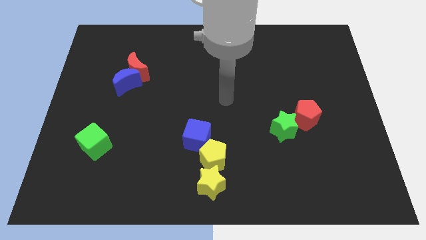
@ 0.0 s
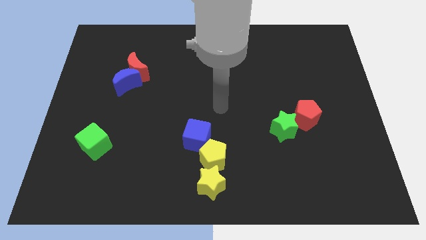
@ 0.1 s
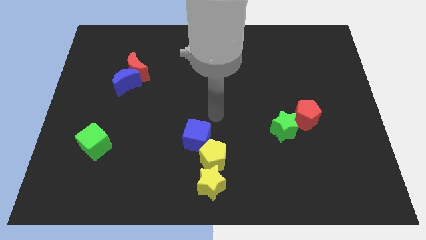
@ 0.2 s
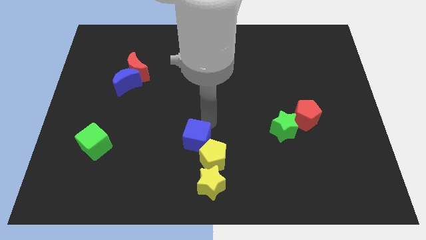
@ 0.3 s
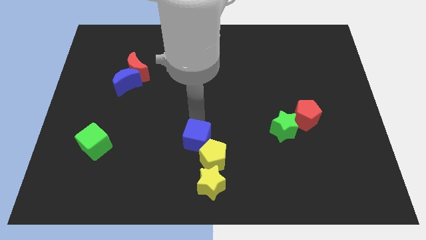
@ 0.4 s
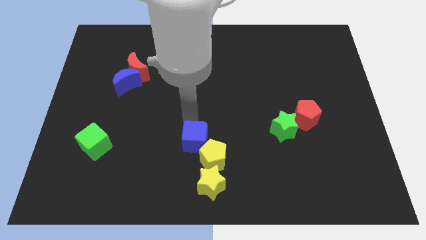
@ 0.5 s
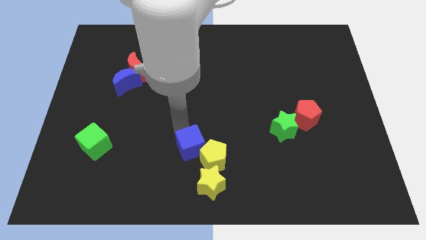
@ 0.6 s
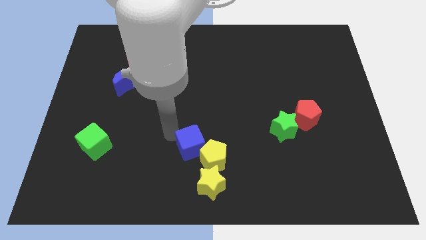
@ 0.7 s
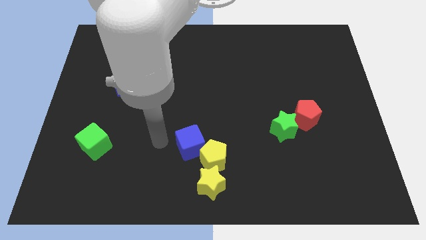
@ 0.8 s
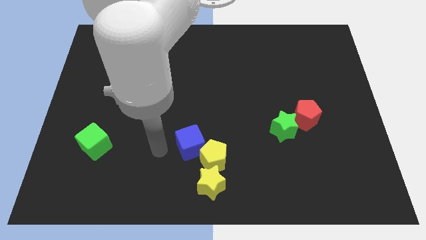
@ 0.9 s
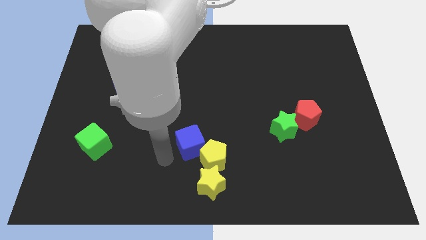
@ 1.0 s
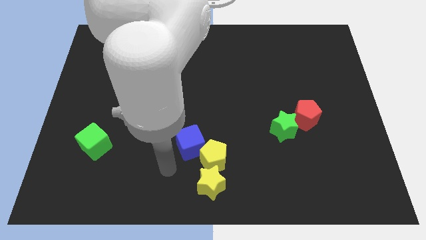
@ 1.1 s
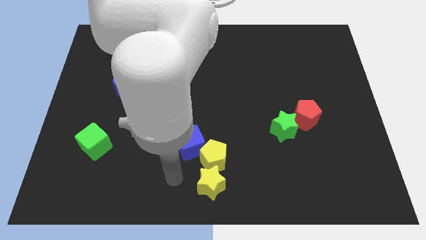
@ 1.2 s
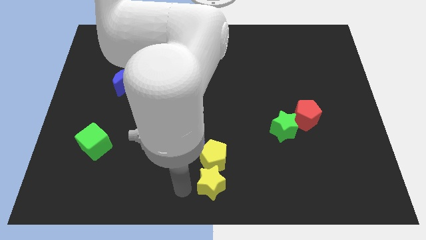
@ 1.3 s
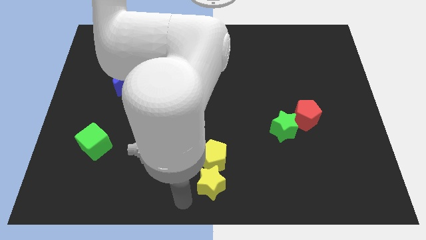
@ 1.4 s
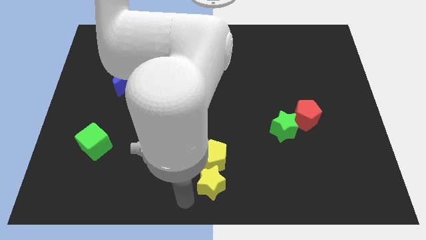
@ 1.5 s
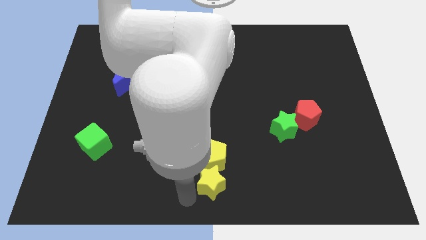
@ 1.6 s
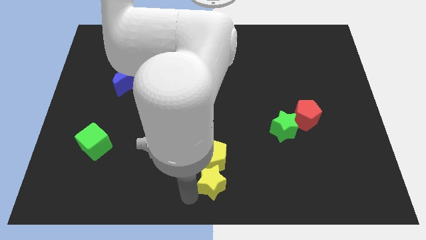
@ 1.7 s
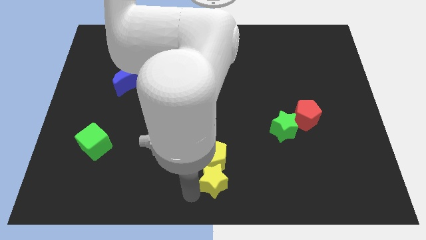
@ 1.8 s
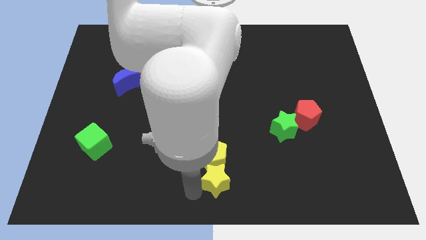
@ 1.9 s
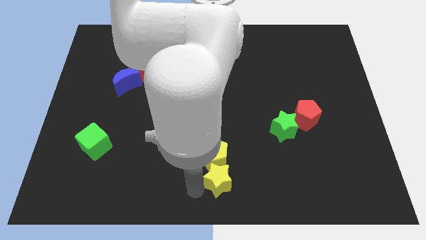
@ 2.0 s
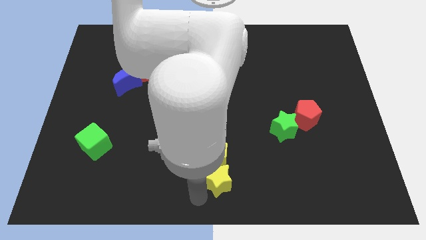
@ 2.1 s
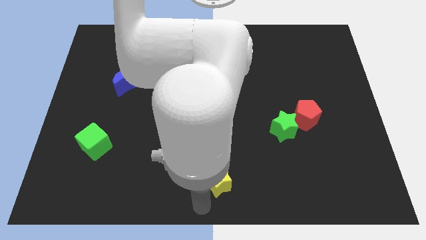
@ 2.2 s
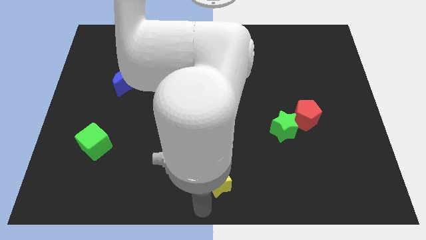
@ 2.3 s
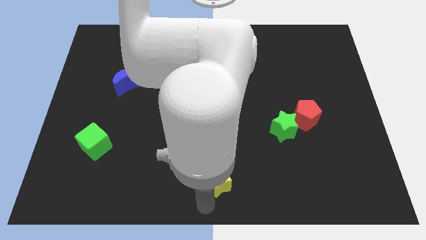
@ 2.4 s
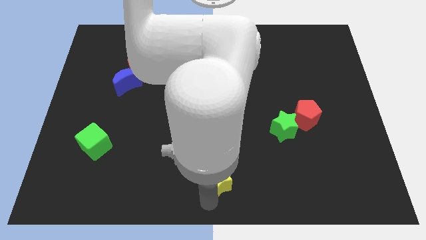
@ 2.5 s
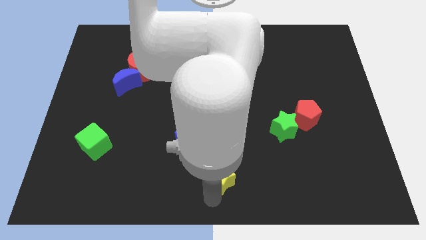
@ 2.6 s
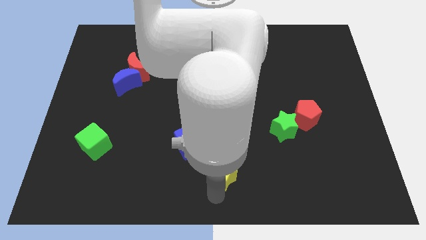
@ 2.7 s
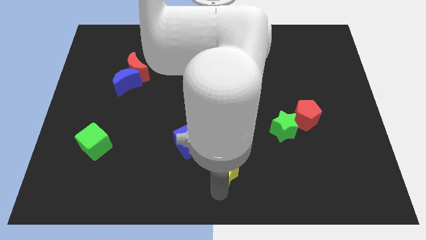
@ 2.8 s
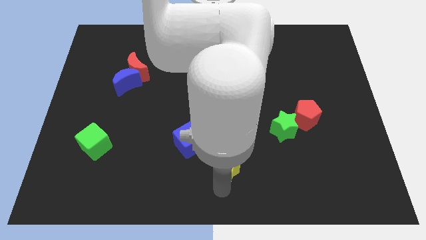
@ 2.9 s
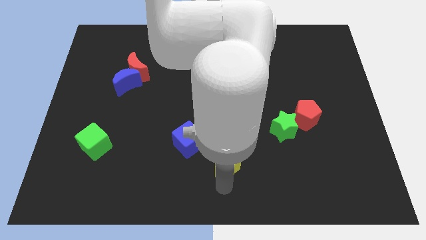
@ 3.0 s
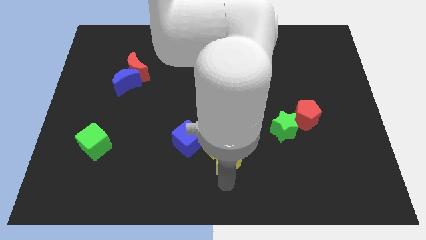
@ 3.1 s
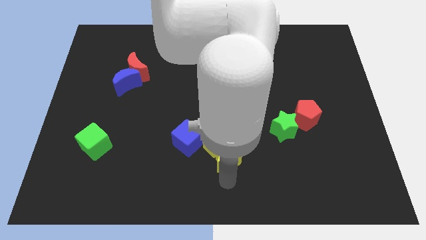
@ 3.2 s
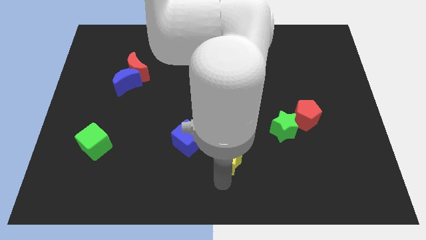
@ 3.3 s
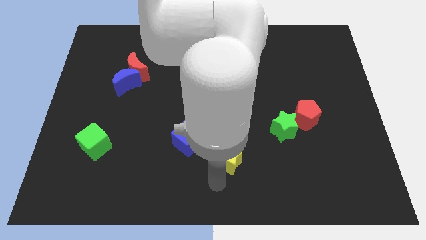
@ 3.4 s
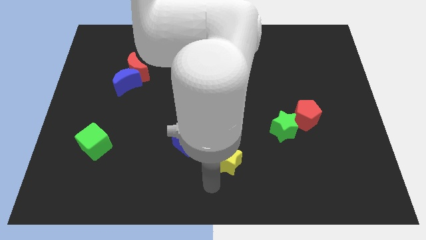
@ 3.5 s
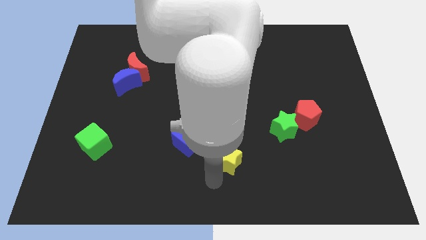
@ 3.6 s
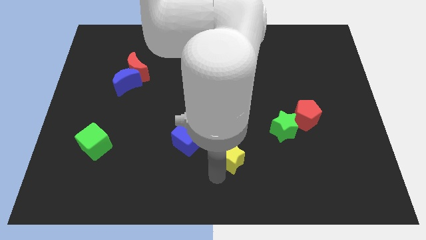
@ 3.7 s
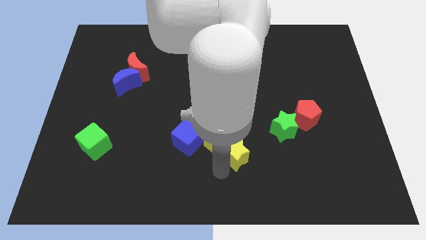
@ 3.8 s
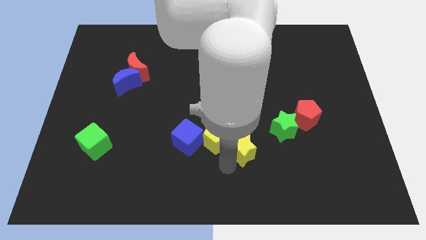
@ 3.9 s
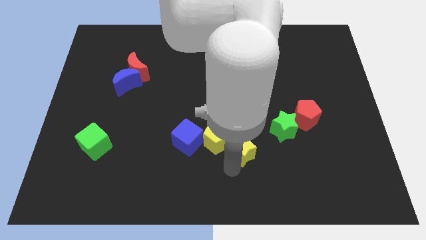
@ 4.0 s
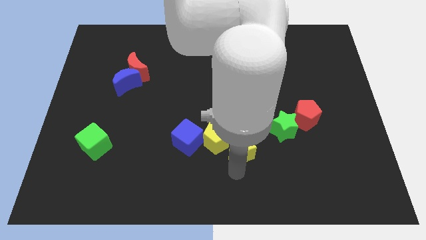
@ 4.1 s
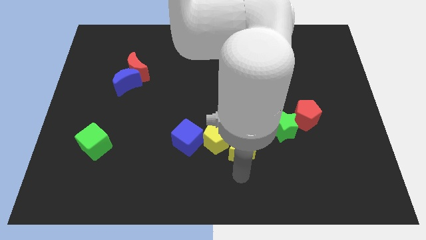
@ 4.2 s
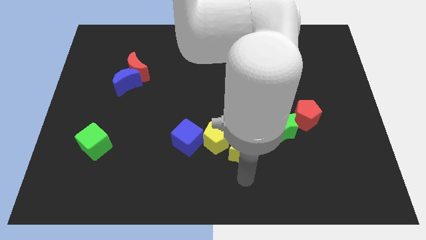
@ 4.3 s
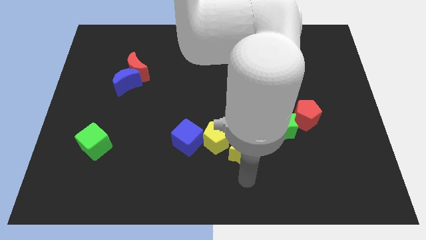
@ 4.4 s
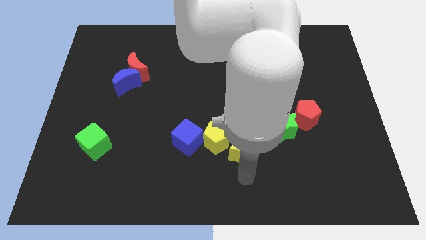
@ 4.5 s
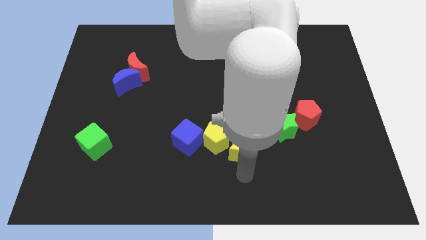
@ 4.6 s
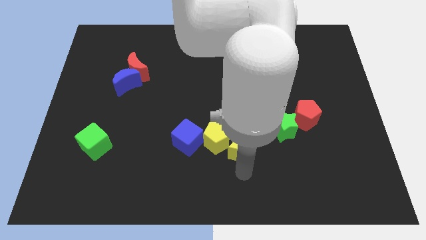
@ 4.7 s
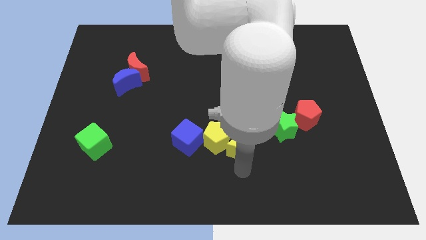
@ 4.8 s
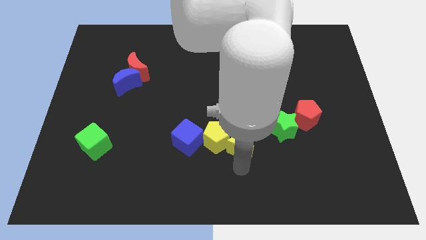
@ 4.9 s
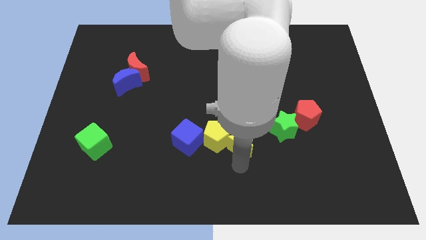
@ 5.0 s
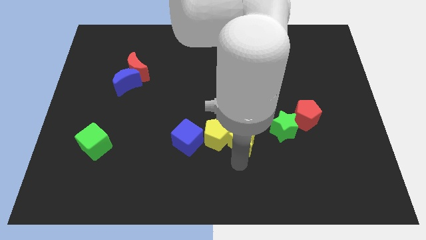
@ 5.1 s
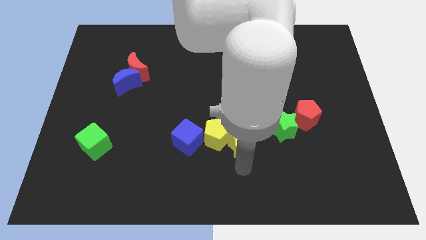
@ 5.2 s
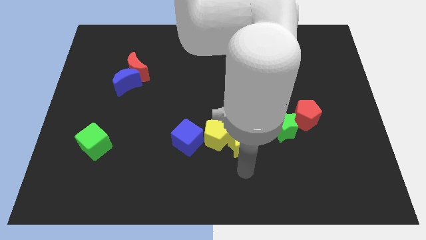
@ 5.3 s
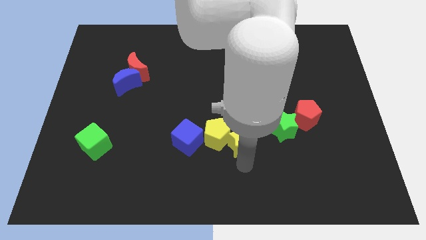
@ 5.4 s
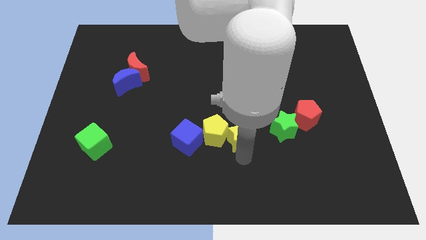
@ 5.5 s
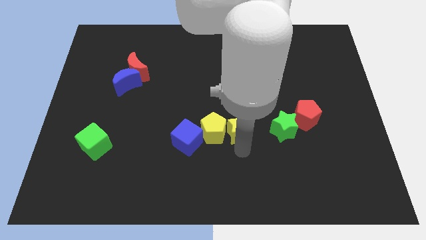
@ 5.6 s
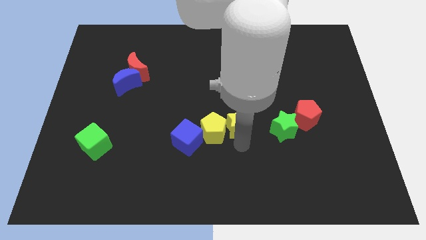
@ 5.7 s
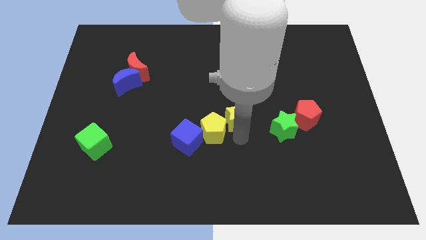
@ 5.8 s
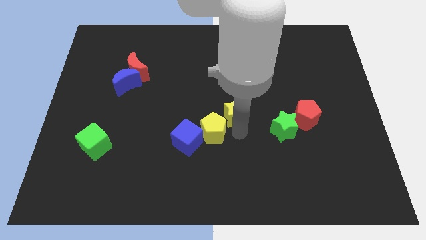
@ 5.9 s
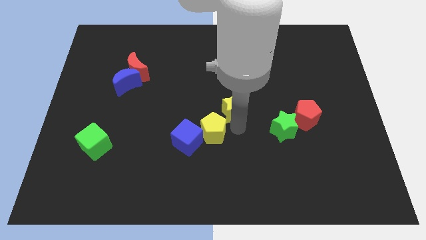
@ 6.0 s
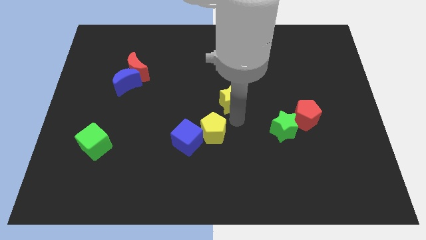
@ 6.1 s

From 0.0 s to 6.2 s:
move the yellow star upwards

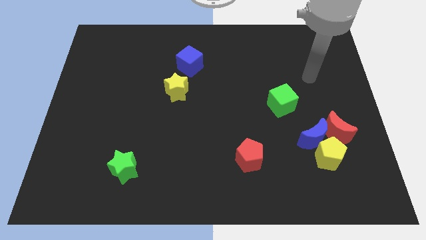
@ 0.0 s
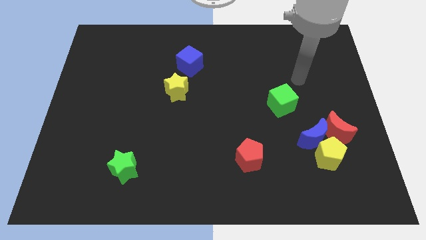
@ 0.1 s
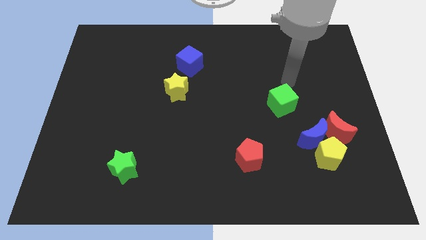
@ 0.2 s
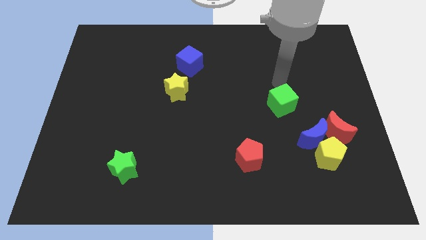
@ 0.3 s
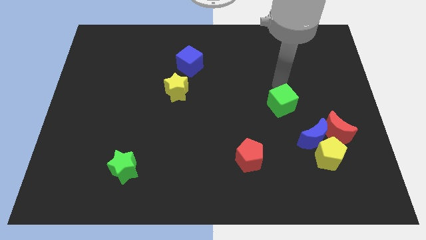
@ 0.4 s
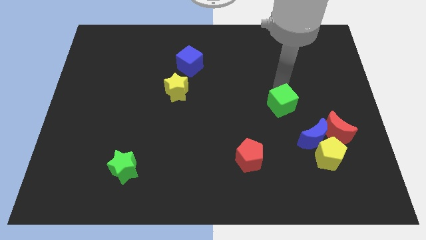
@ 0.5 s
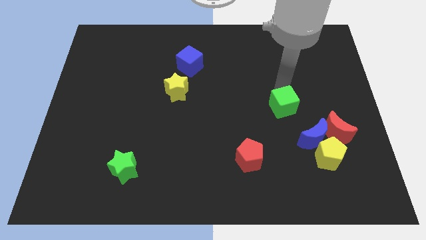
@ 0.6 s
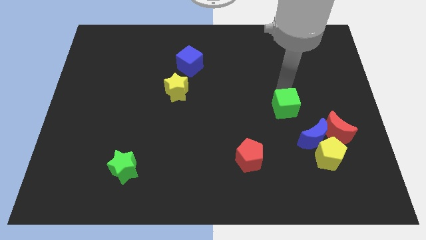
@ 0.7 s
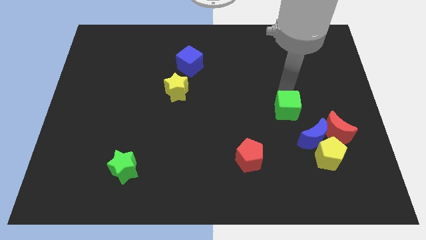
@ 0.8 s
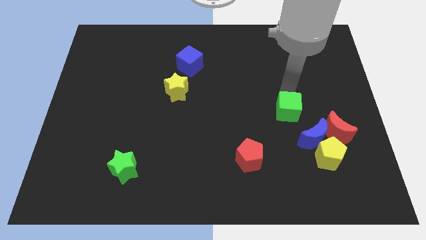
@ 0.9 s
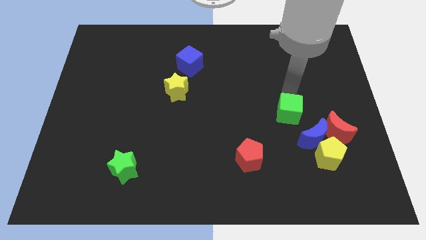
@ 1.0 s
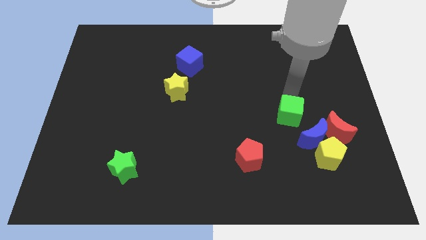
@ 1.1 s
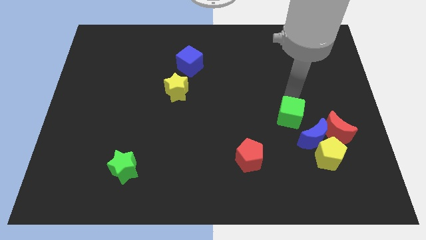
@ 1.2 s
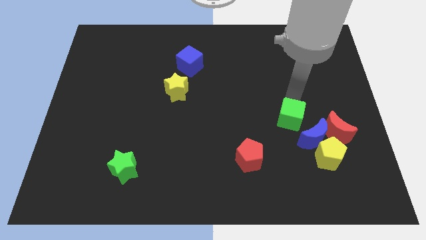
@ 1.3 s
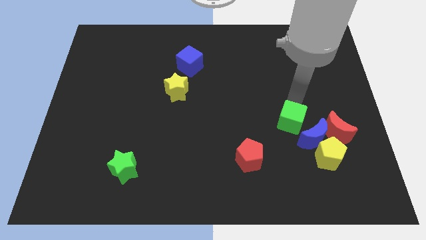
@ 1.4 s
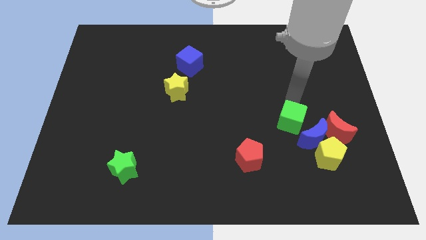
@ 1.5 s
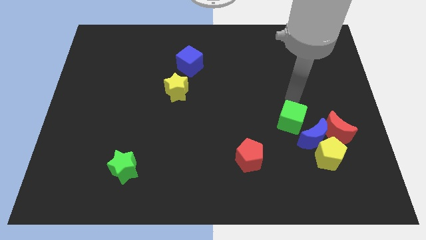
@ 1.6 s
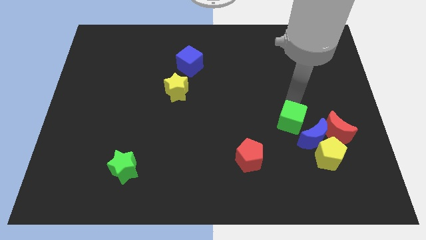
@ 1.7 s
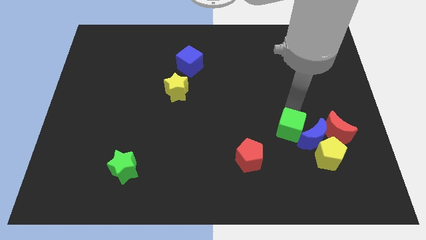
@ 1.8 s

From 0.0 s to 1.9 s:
slightly slide the green cube down
